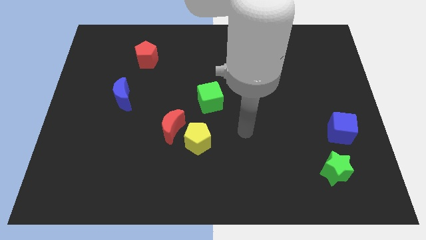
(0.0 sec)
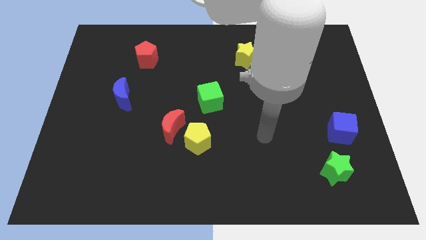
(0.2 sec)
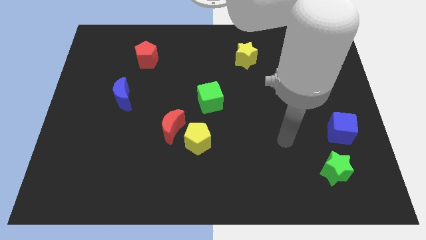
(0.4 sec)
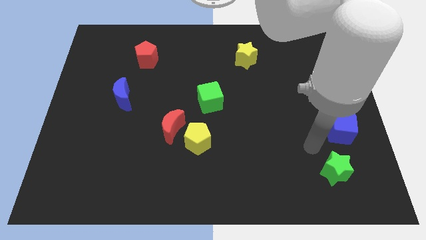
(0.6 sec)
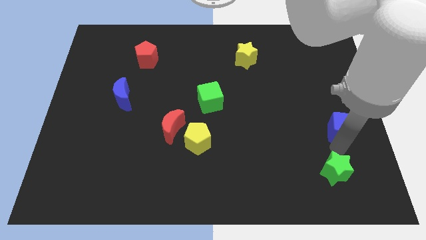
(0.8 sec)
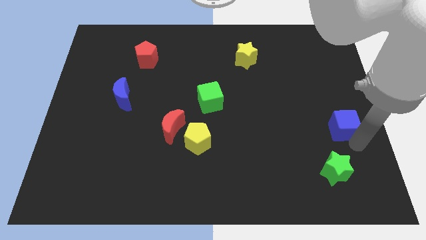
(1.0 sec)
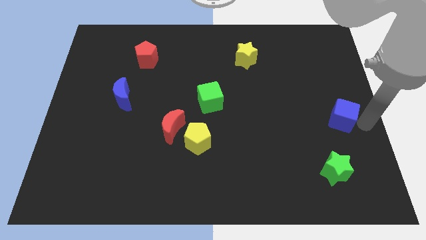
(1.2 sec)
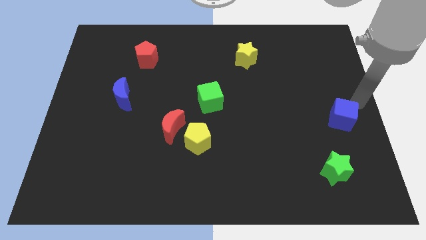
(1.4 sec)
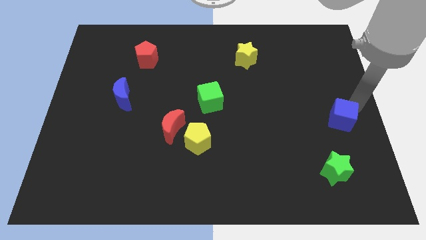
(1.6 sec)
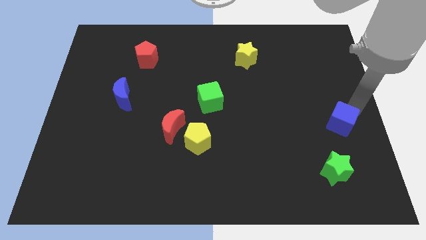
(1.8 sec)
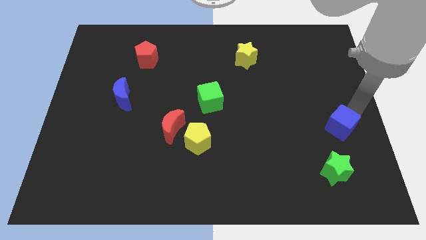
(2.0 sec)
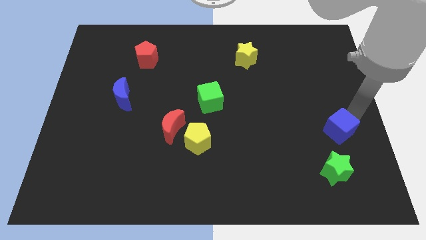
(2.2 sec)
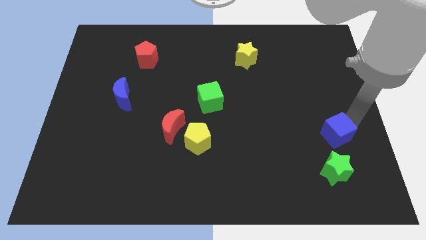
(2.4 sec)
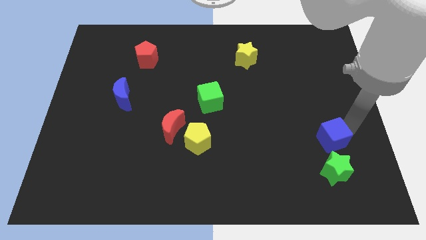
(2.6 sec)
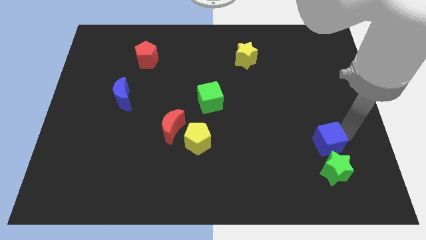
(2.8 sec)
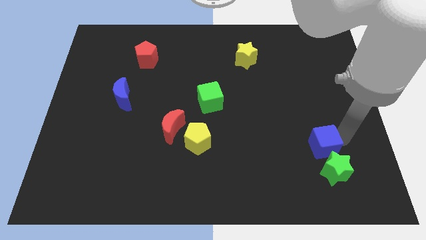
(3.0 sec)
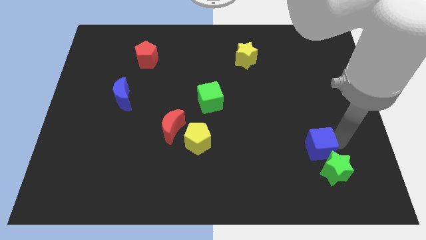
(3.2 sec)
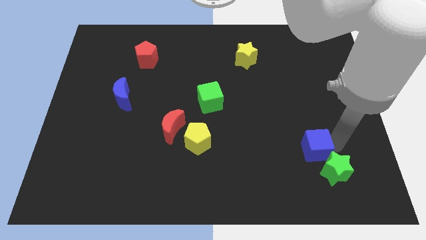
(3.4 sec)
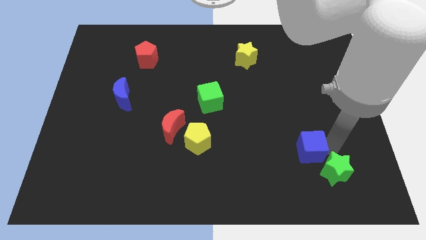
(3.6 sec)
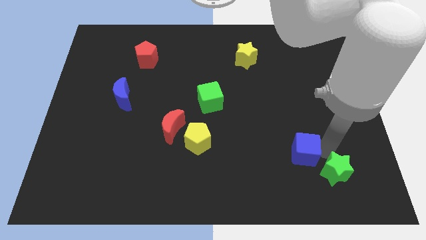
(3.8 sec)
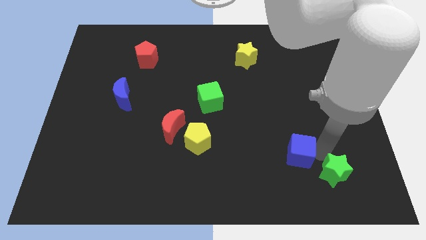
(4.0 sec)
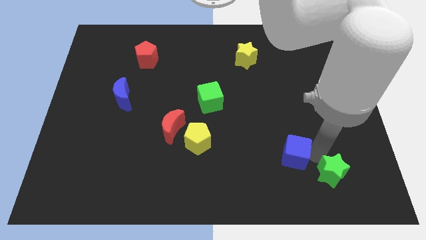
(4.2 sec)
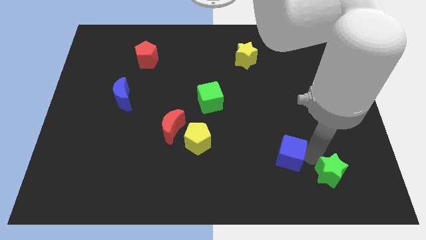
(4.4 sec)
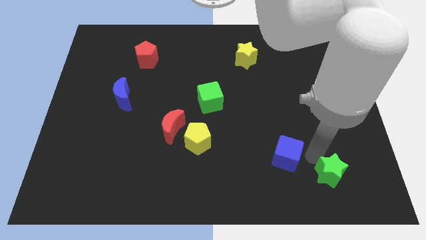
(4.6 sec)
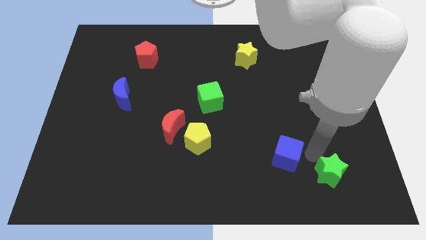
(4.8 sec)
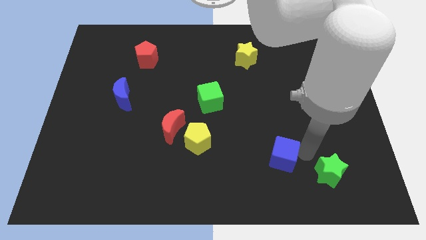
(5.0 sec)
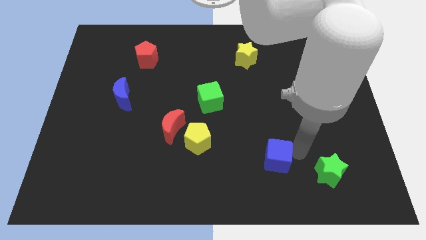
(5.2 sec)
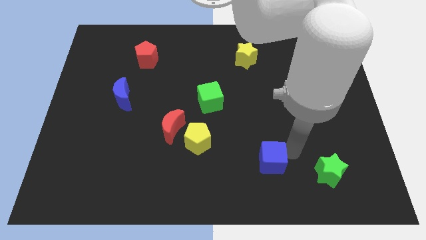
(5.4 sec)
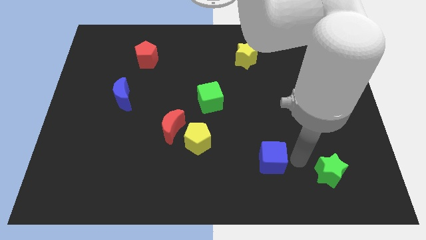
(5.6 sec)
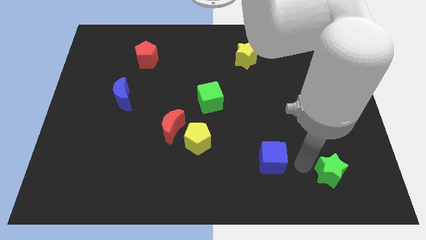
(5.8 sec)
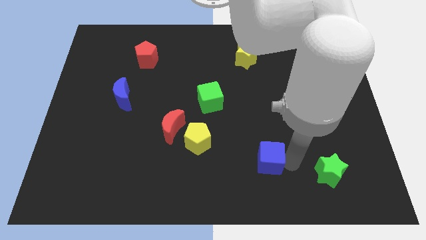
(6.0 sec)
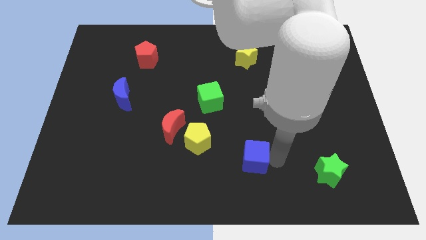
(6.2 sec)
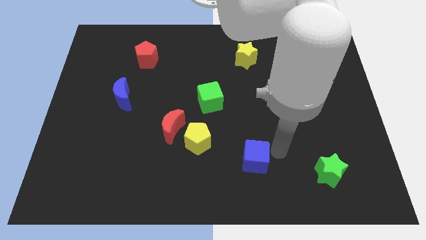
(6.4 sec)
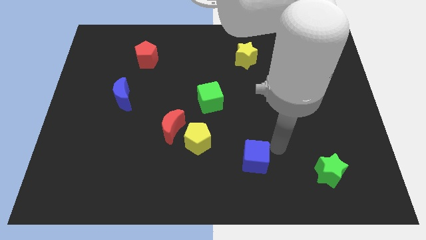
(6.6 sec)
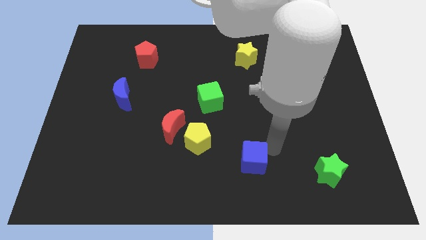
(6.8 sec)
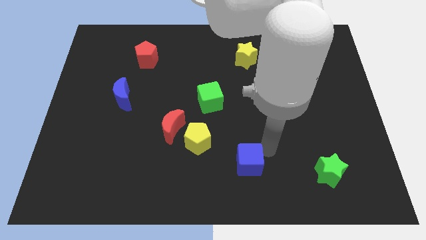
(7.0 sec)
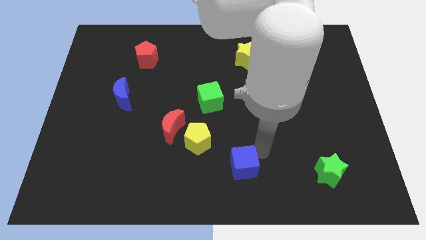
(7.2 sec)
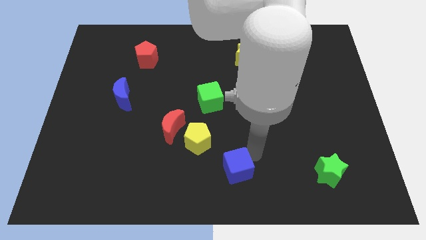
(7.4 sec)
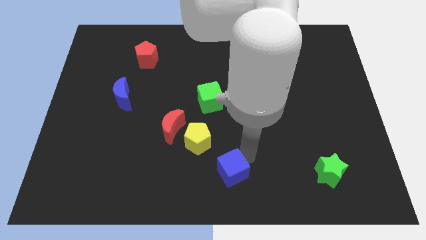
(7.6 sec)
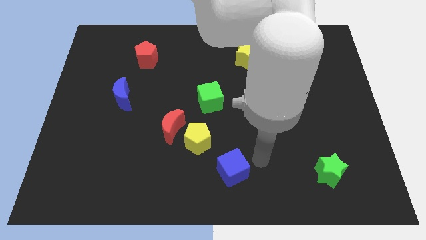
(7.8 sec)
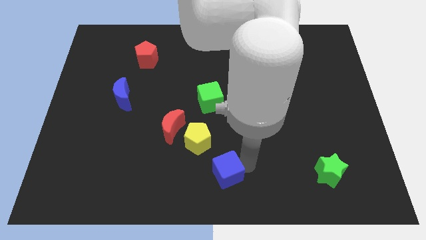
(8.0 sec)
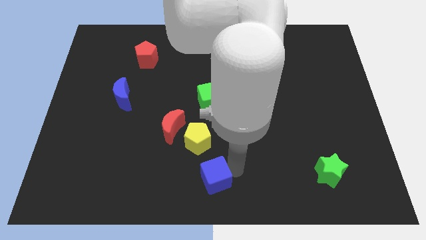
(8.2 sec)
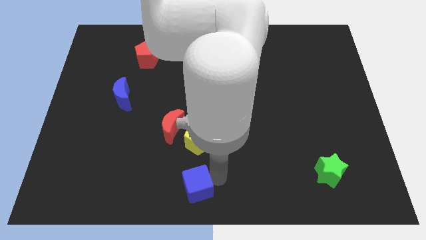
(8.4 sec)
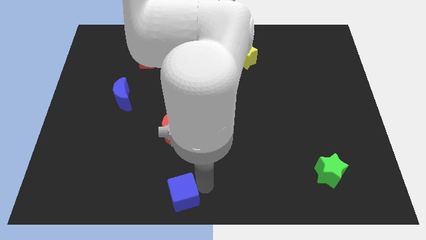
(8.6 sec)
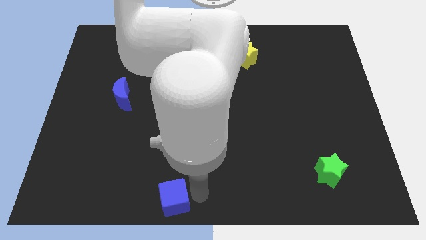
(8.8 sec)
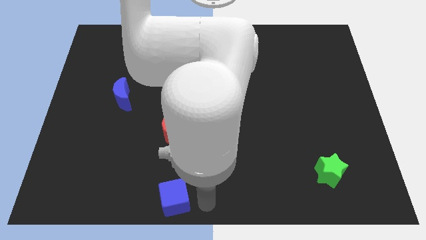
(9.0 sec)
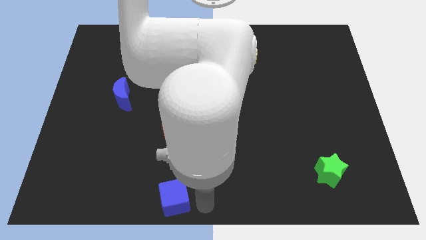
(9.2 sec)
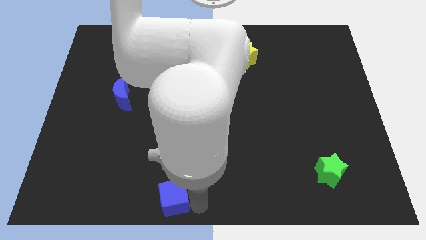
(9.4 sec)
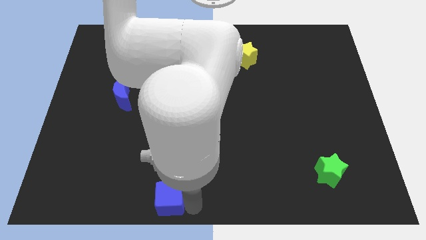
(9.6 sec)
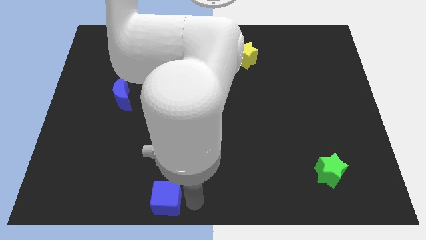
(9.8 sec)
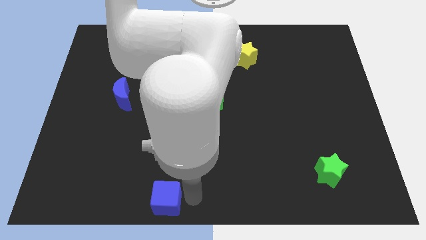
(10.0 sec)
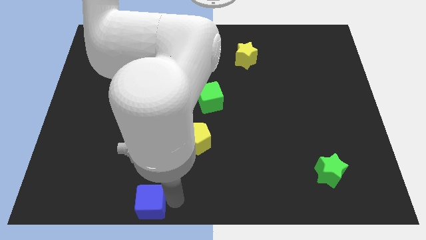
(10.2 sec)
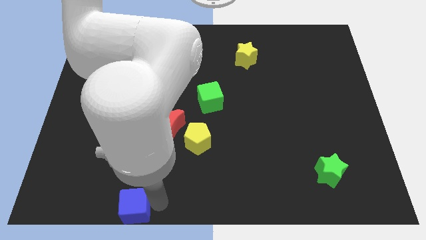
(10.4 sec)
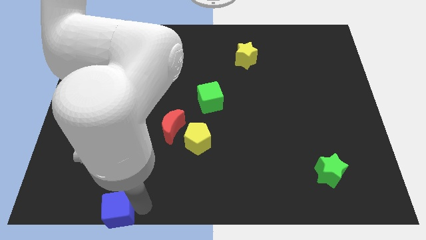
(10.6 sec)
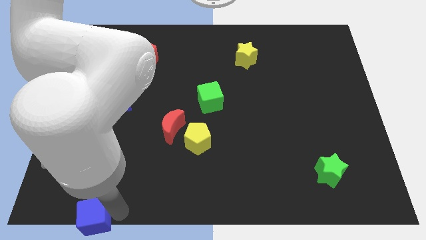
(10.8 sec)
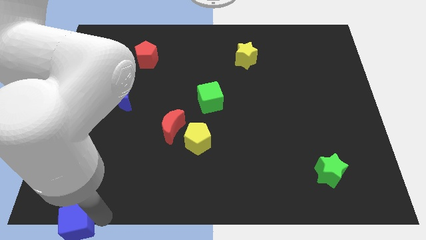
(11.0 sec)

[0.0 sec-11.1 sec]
push the blue cube to the bottom left corner
